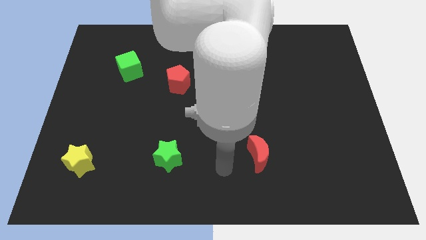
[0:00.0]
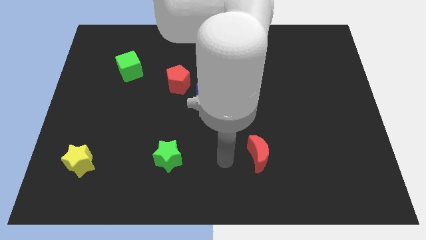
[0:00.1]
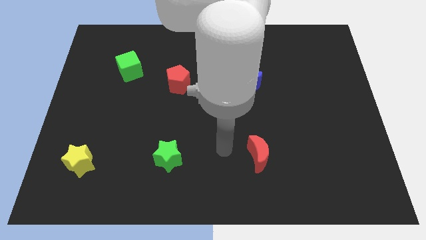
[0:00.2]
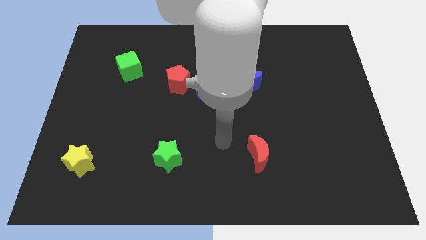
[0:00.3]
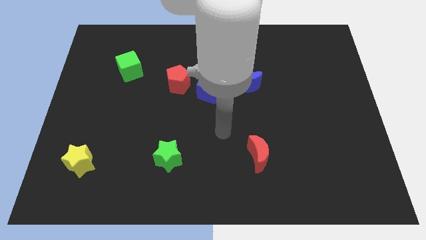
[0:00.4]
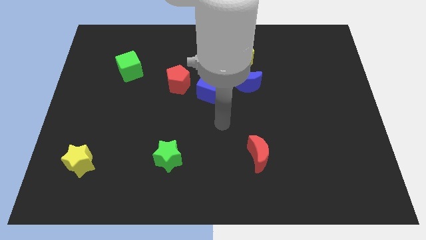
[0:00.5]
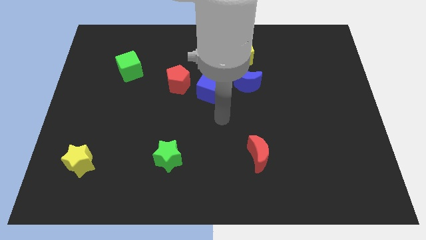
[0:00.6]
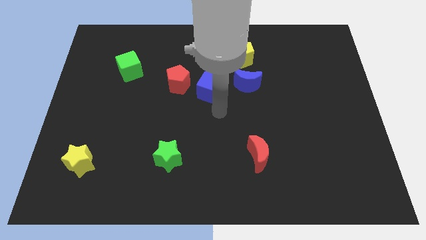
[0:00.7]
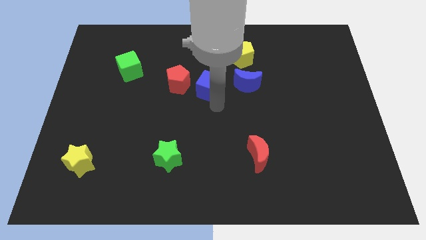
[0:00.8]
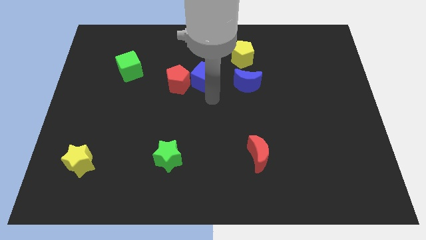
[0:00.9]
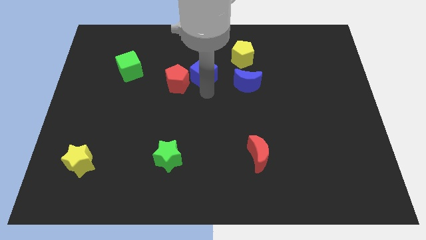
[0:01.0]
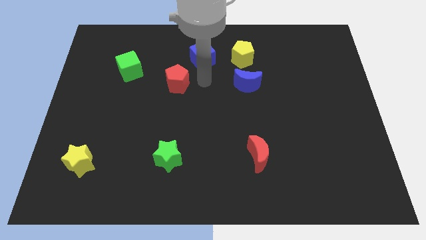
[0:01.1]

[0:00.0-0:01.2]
separate the red pentagon from the blue cube

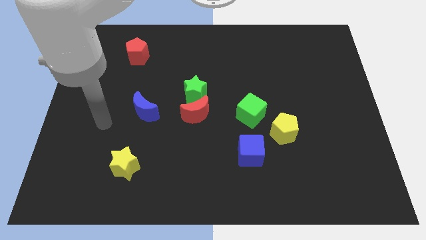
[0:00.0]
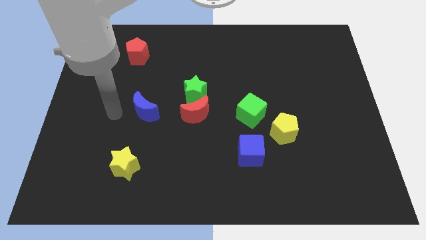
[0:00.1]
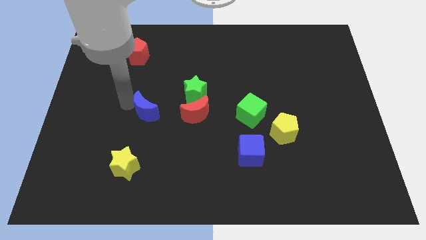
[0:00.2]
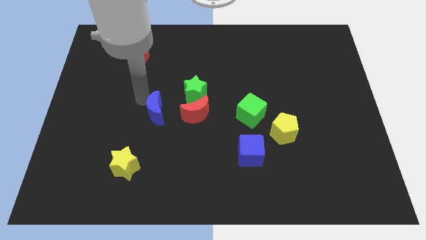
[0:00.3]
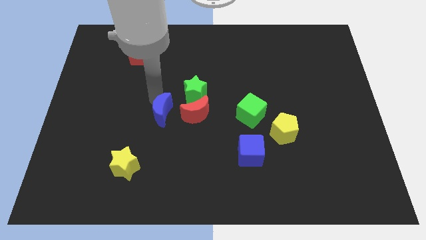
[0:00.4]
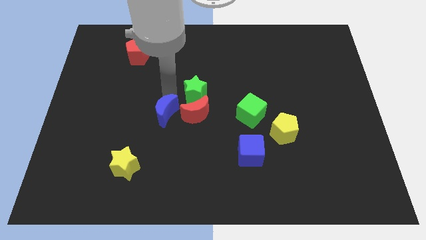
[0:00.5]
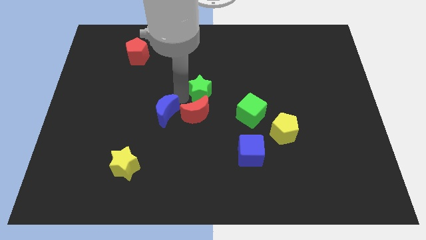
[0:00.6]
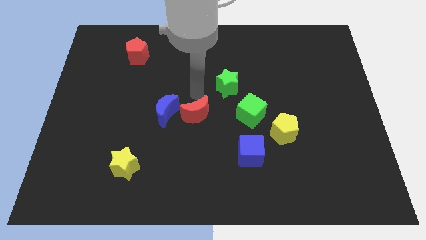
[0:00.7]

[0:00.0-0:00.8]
move the red moon away from the green star

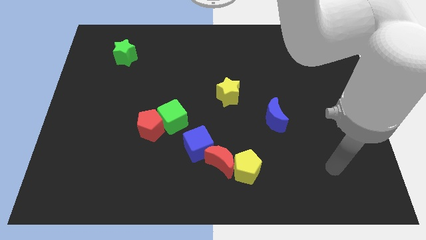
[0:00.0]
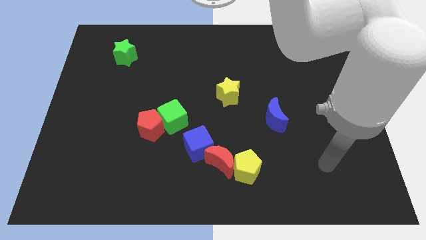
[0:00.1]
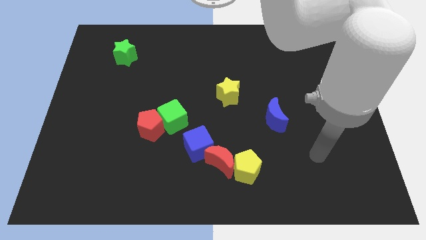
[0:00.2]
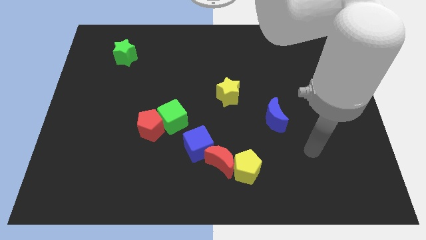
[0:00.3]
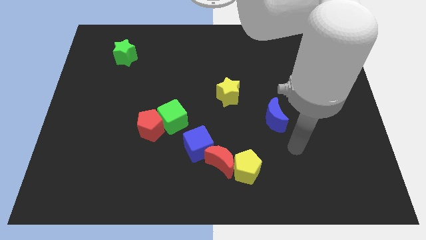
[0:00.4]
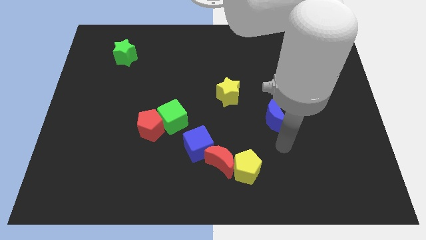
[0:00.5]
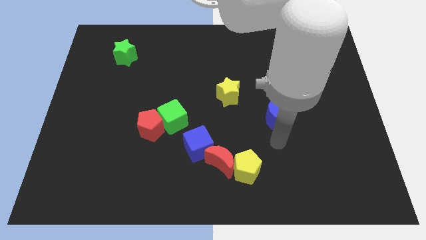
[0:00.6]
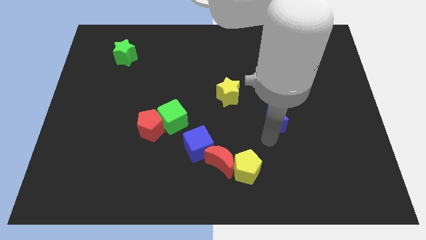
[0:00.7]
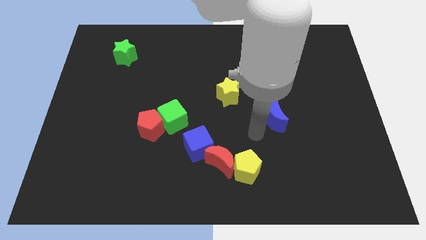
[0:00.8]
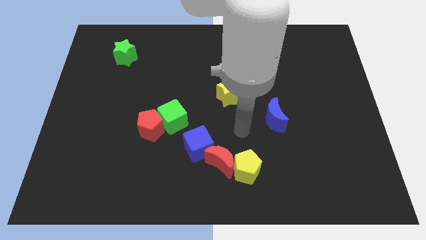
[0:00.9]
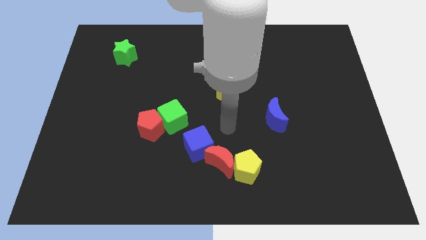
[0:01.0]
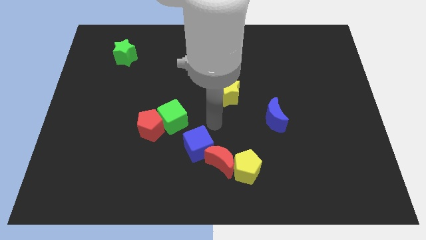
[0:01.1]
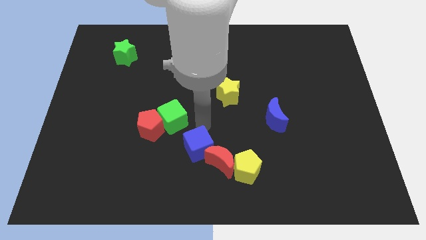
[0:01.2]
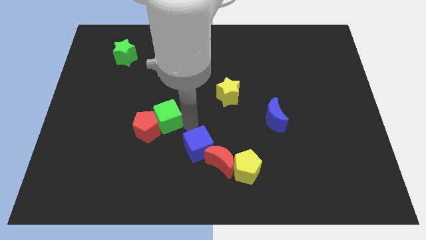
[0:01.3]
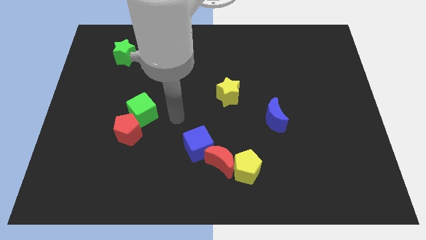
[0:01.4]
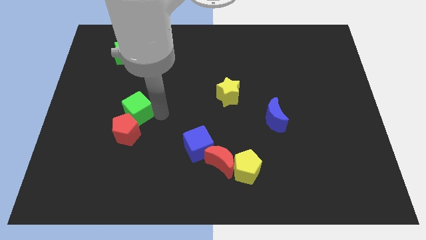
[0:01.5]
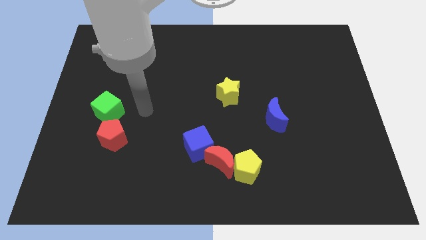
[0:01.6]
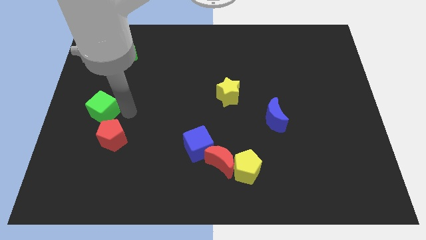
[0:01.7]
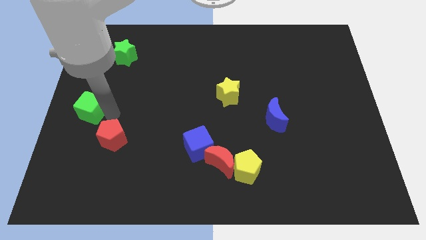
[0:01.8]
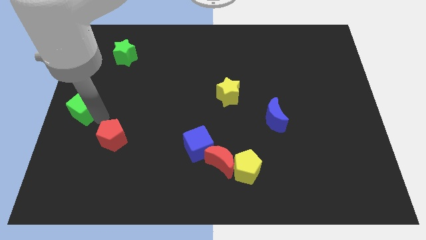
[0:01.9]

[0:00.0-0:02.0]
separate the red pentagon from the green cube

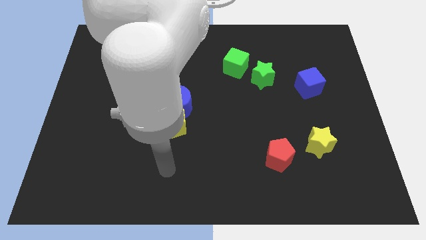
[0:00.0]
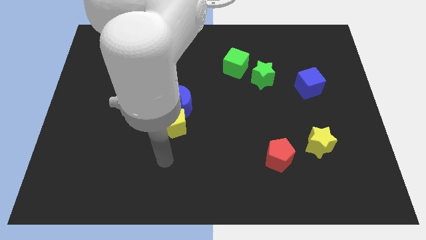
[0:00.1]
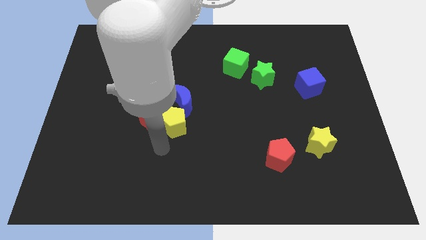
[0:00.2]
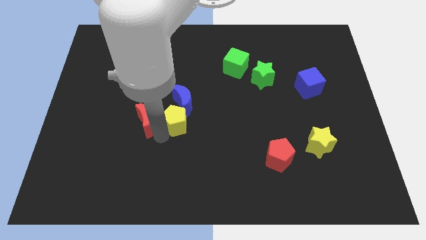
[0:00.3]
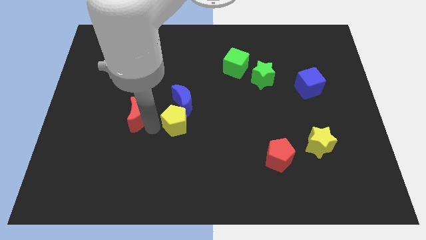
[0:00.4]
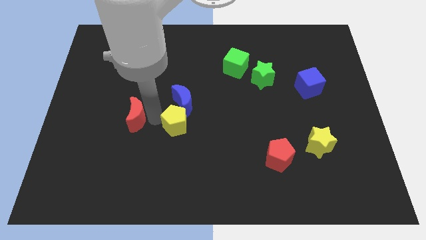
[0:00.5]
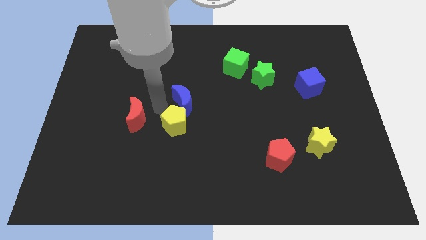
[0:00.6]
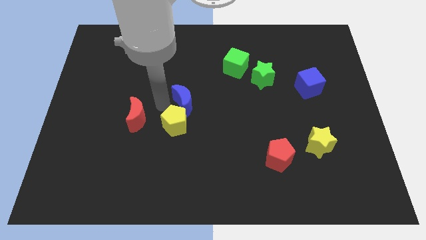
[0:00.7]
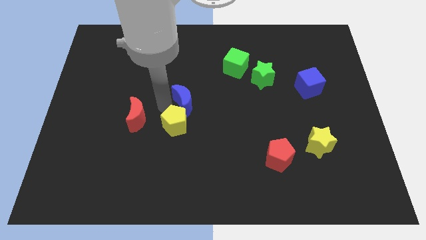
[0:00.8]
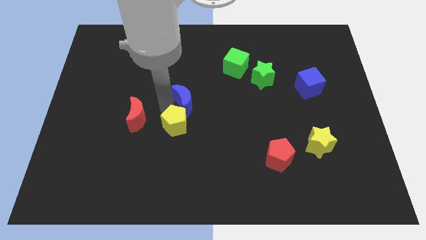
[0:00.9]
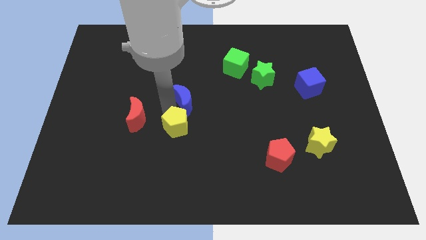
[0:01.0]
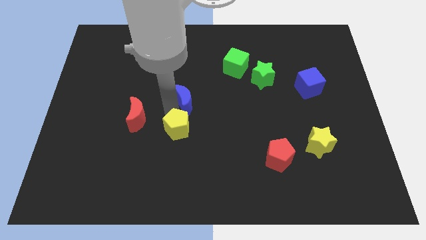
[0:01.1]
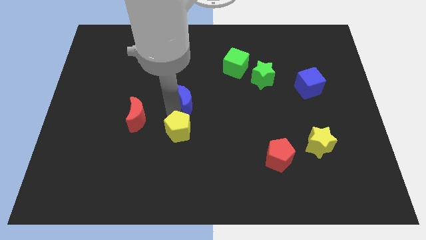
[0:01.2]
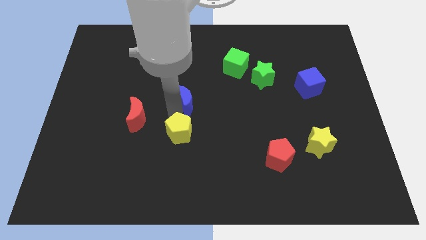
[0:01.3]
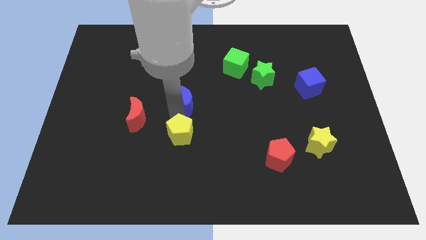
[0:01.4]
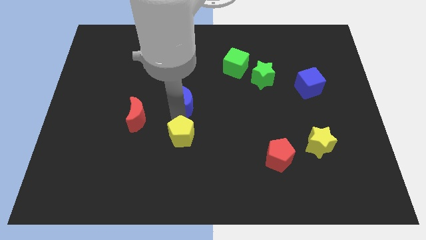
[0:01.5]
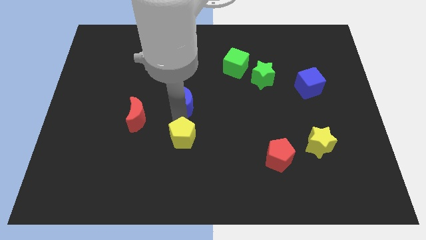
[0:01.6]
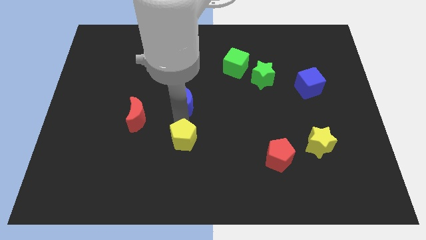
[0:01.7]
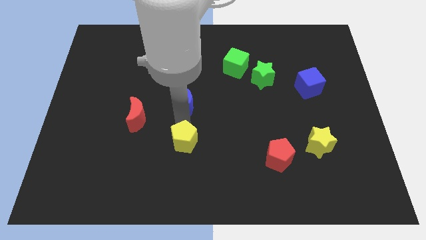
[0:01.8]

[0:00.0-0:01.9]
pull the yellow pentagon apart from the red moon and blue moon

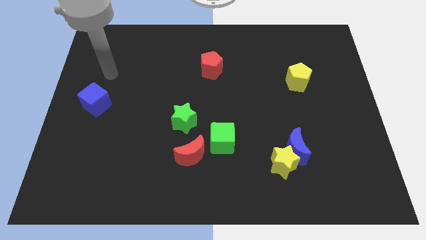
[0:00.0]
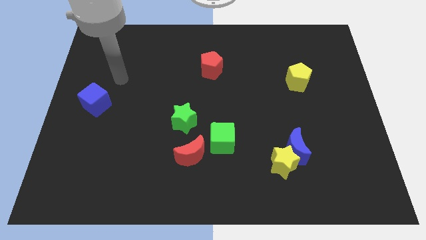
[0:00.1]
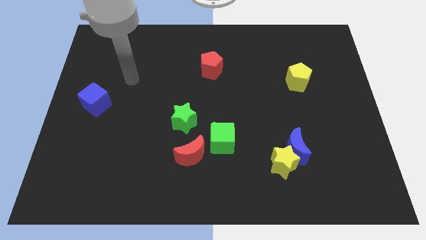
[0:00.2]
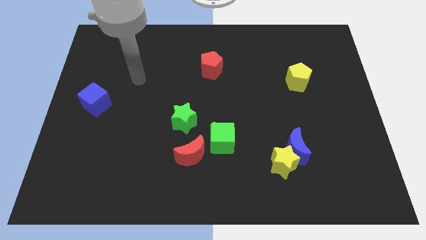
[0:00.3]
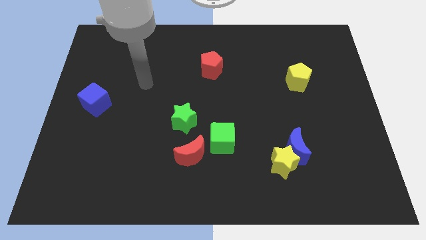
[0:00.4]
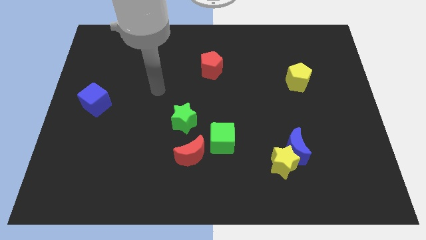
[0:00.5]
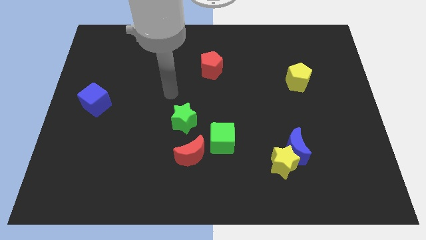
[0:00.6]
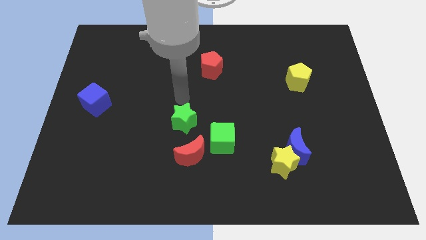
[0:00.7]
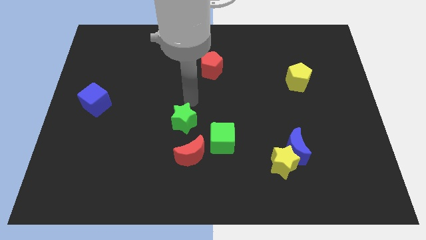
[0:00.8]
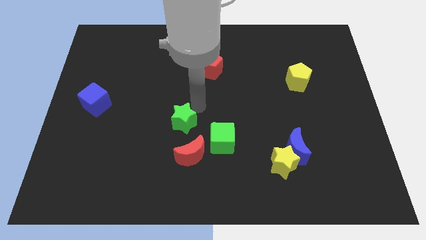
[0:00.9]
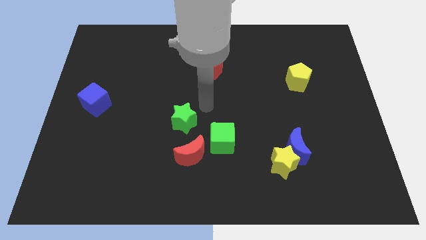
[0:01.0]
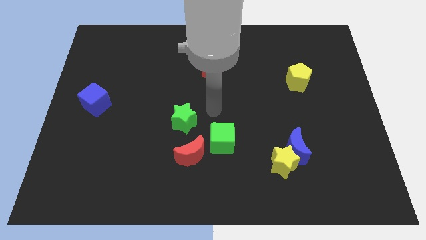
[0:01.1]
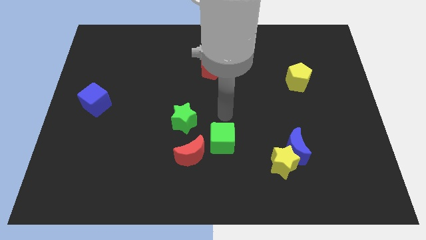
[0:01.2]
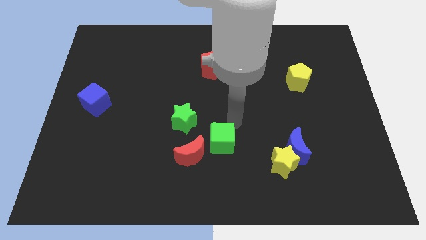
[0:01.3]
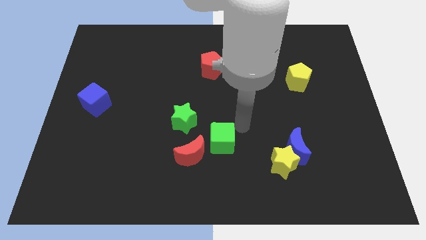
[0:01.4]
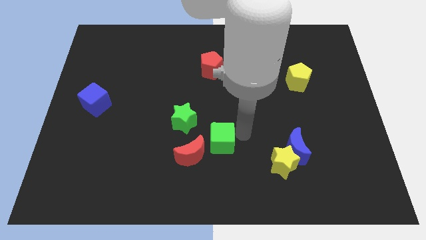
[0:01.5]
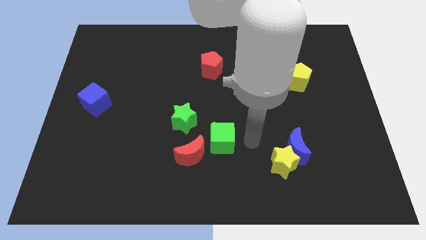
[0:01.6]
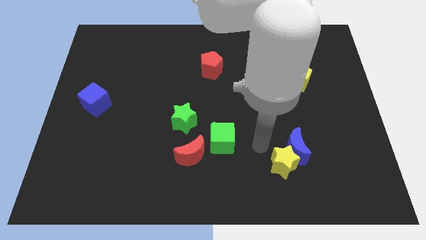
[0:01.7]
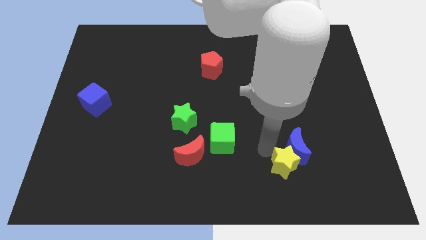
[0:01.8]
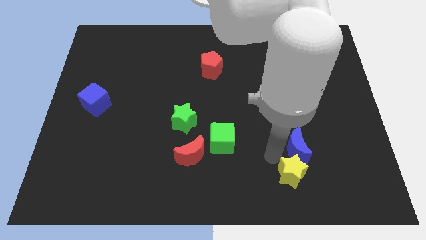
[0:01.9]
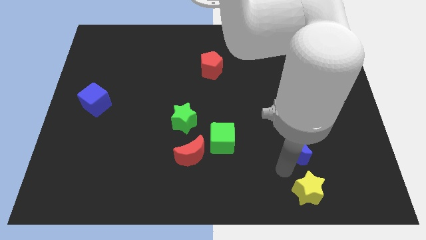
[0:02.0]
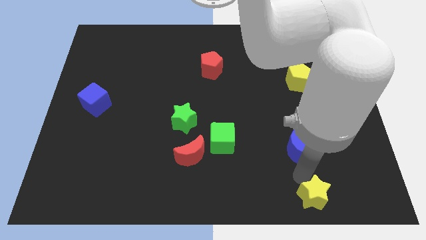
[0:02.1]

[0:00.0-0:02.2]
move the blue moon away from the yellow star

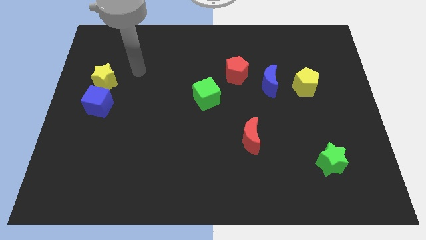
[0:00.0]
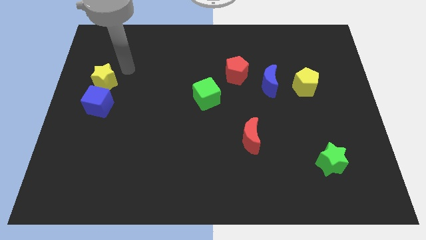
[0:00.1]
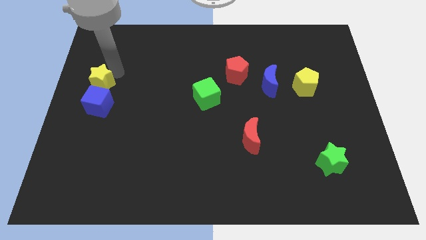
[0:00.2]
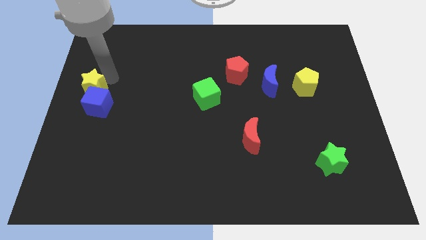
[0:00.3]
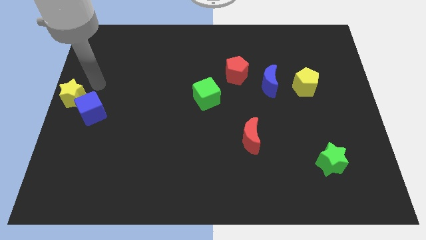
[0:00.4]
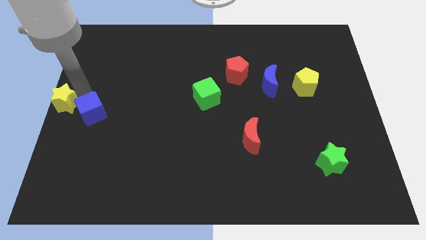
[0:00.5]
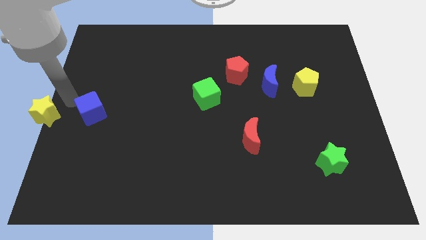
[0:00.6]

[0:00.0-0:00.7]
pull the blue cube apart from the yellow star

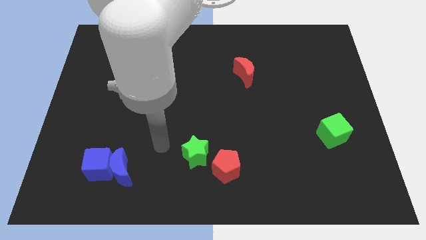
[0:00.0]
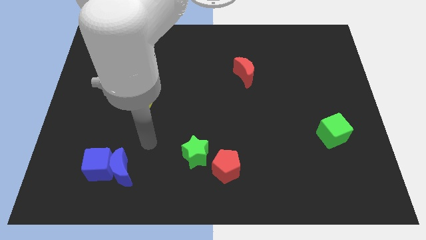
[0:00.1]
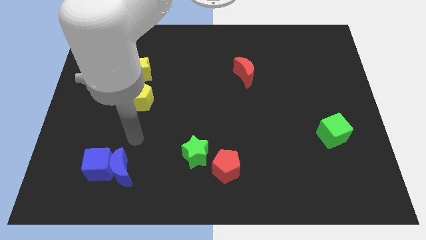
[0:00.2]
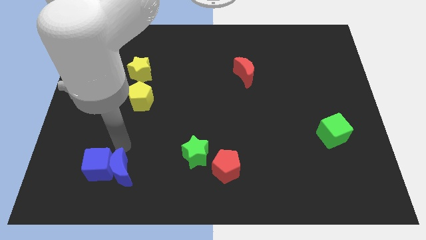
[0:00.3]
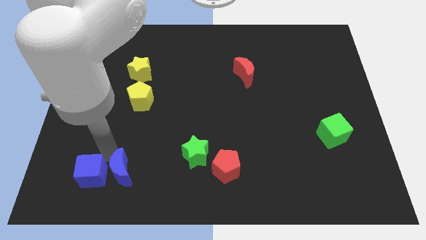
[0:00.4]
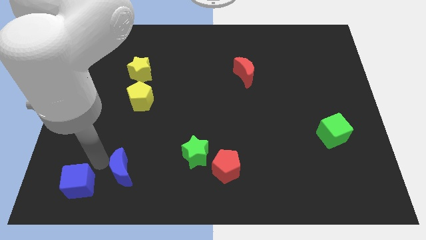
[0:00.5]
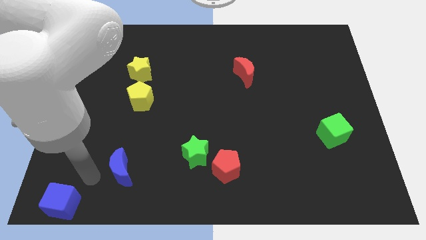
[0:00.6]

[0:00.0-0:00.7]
pull the blue moon apart from the blue cube
